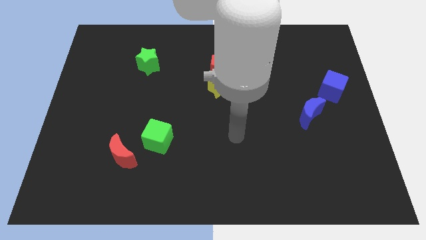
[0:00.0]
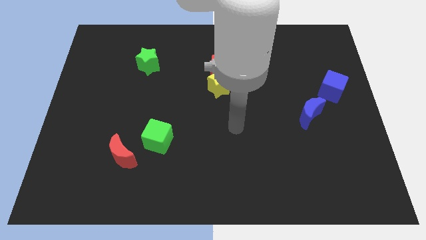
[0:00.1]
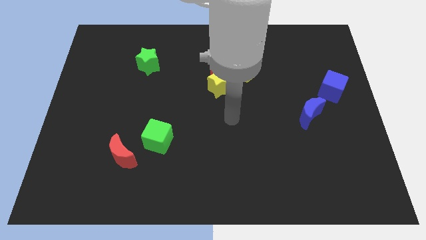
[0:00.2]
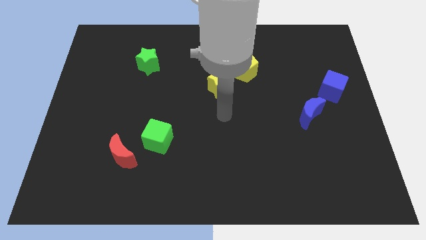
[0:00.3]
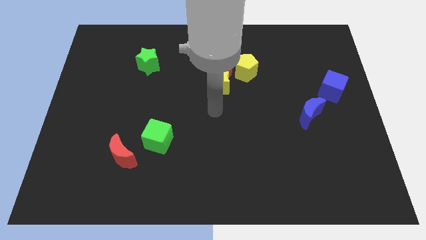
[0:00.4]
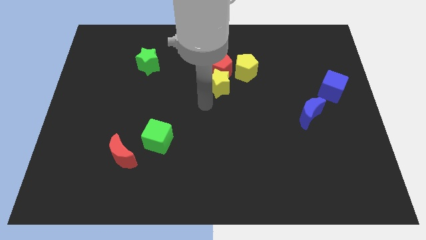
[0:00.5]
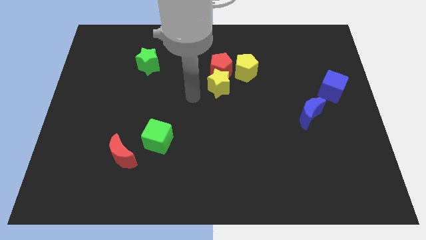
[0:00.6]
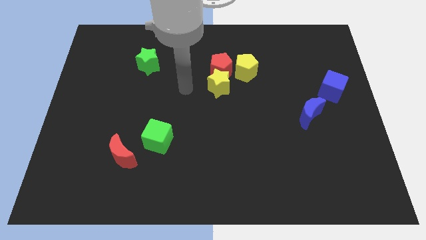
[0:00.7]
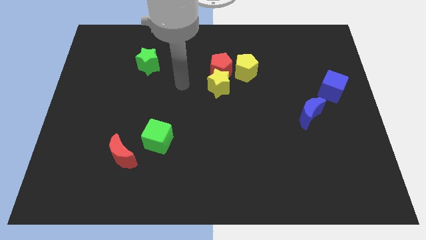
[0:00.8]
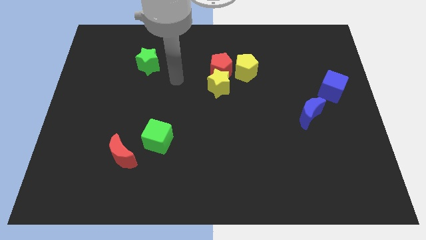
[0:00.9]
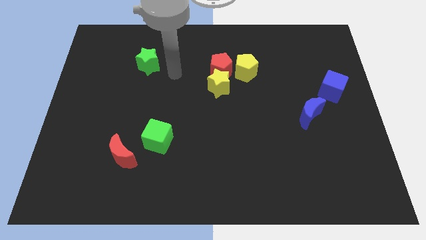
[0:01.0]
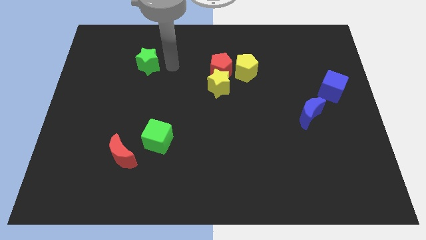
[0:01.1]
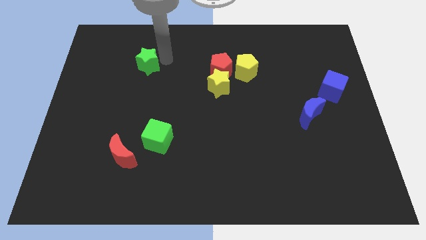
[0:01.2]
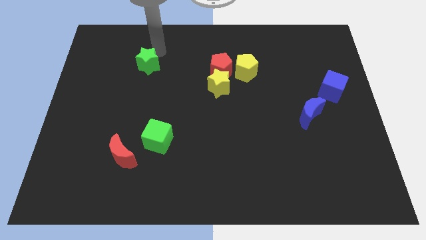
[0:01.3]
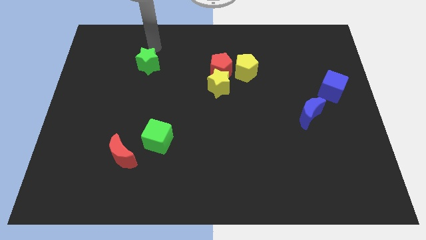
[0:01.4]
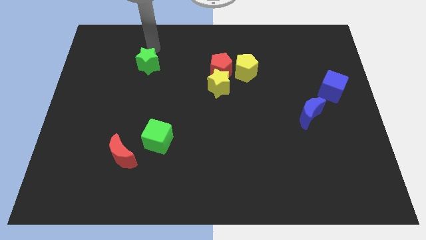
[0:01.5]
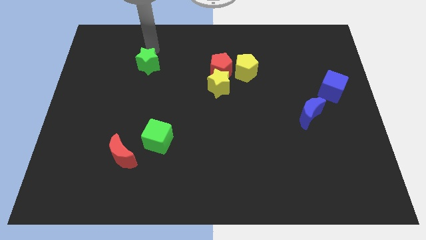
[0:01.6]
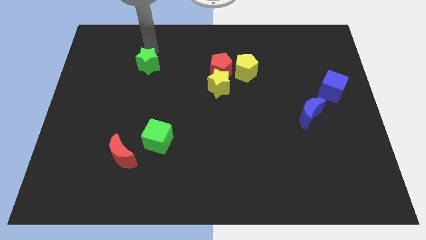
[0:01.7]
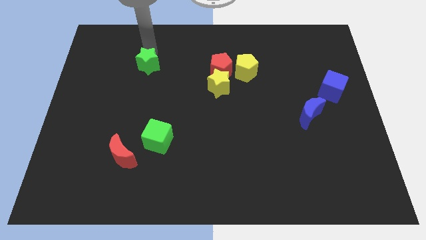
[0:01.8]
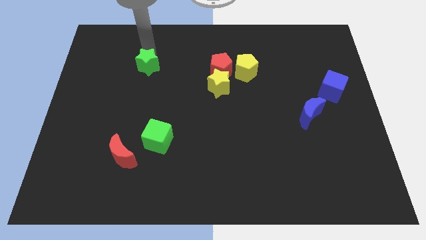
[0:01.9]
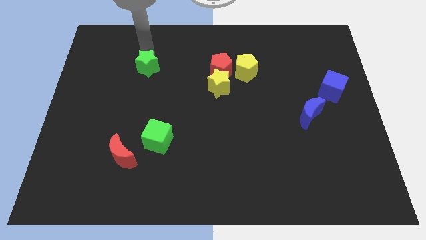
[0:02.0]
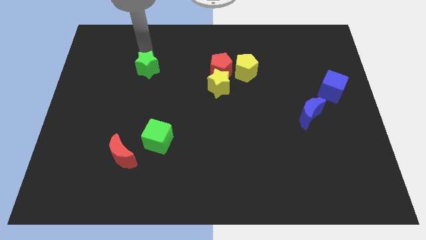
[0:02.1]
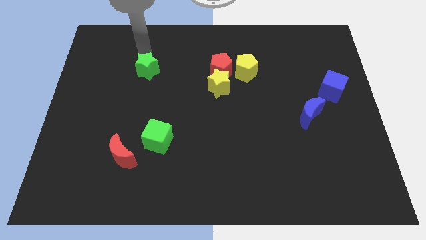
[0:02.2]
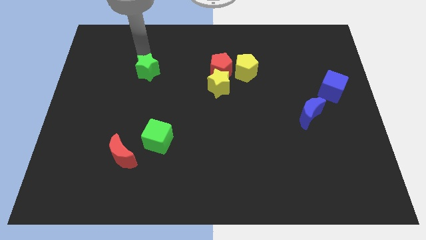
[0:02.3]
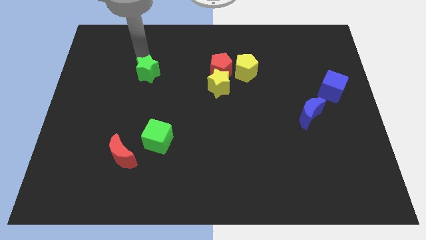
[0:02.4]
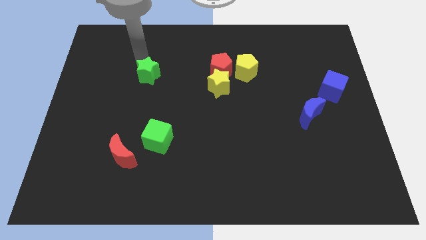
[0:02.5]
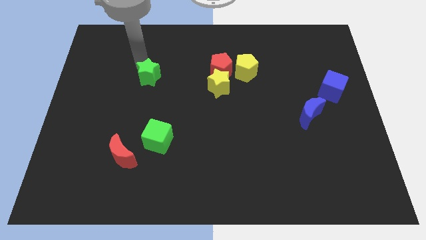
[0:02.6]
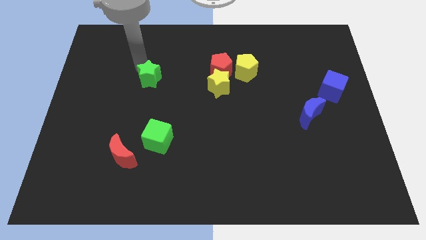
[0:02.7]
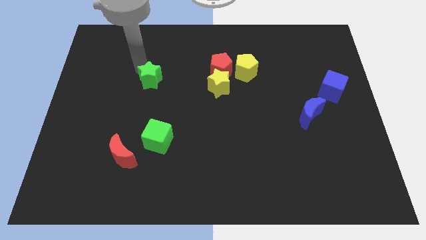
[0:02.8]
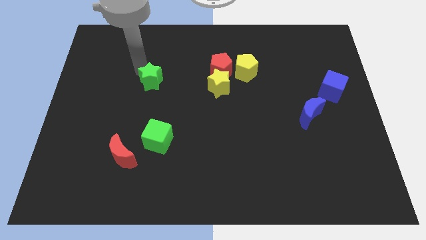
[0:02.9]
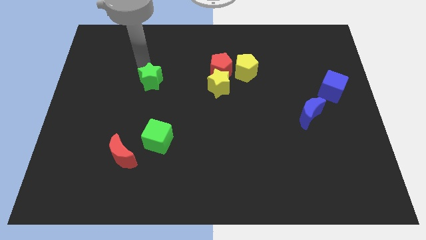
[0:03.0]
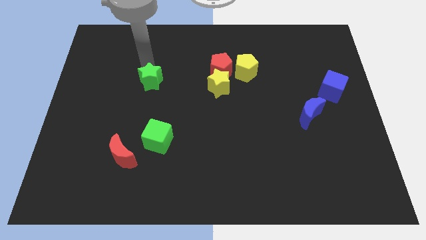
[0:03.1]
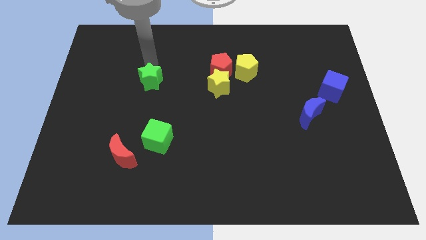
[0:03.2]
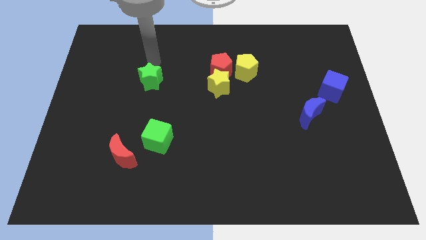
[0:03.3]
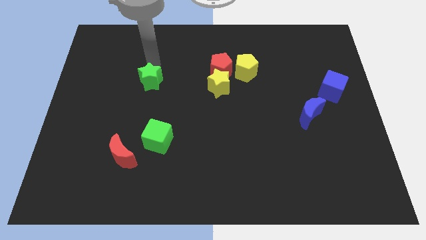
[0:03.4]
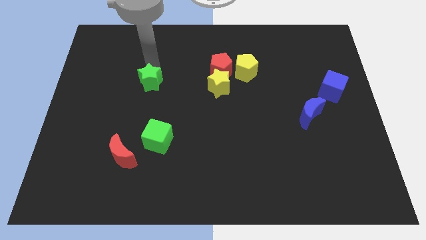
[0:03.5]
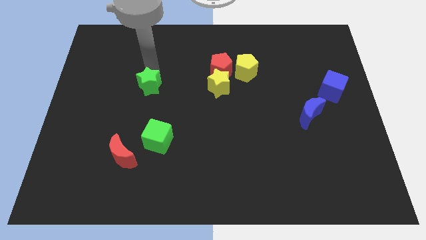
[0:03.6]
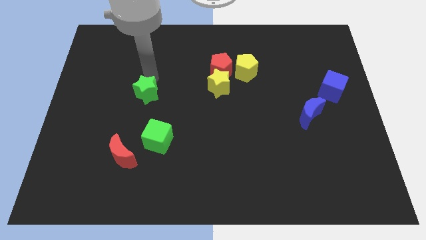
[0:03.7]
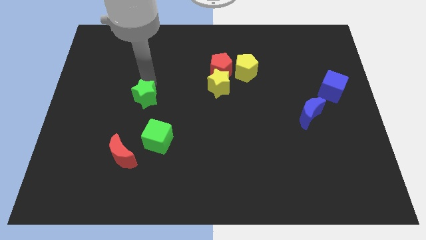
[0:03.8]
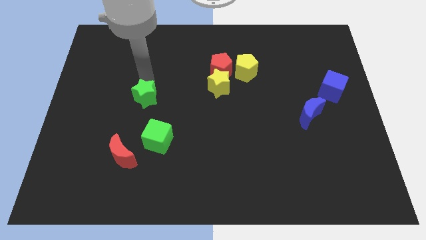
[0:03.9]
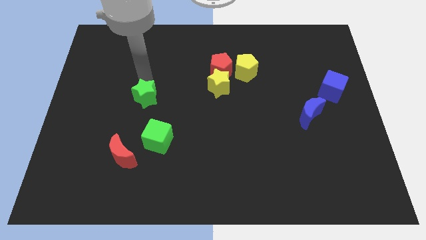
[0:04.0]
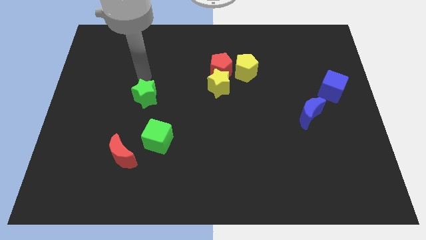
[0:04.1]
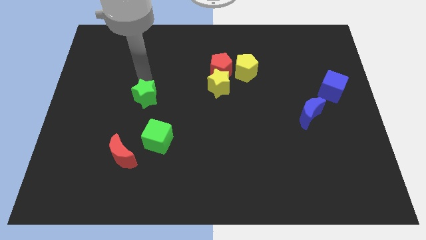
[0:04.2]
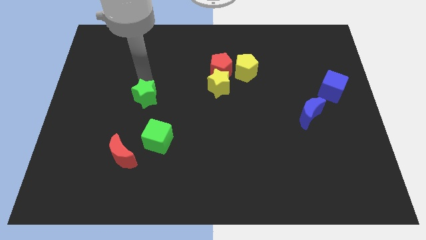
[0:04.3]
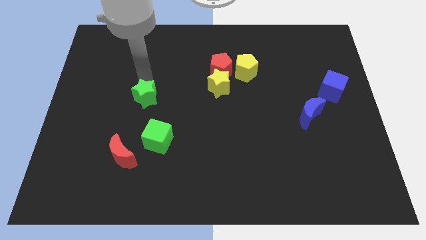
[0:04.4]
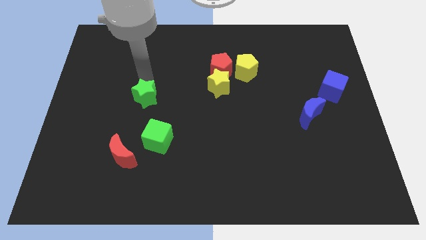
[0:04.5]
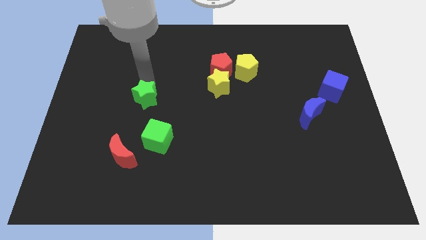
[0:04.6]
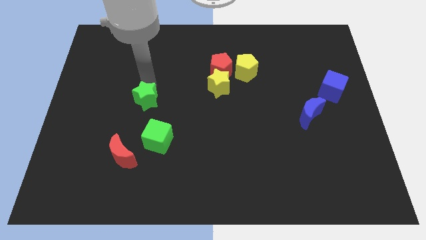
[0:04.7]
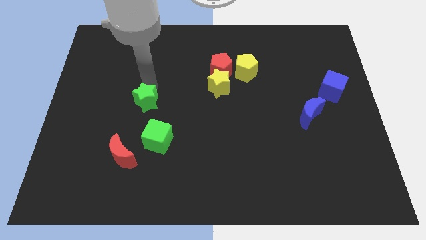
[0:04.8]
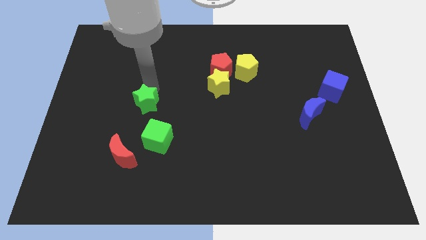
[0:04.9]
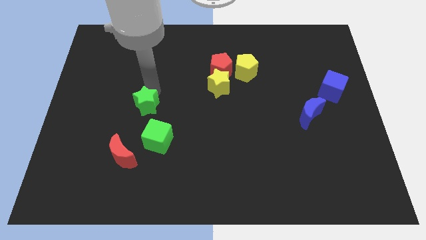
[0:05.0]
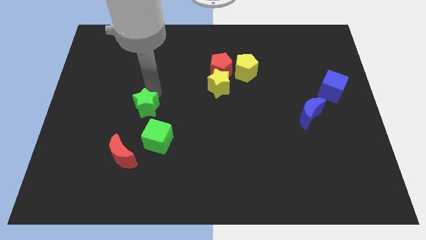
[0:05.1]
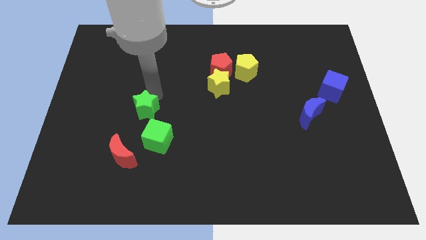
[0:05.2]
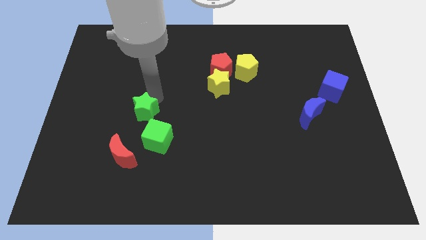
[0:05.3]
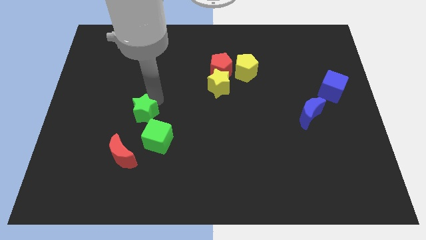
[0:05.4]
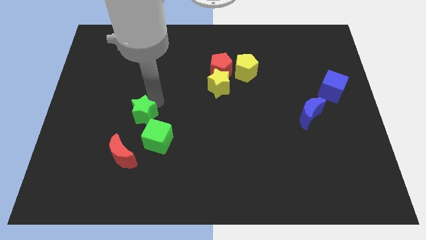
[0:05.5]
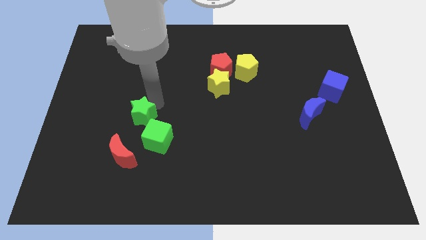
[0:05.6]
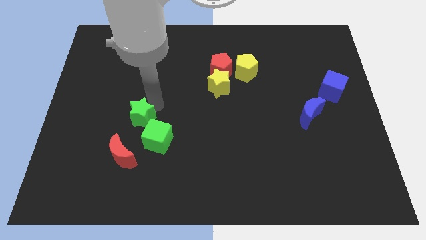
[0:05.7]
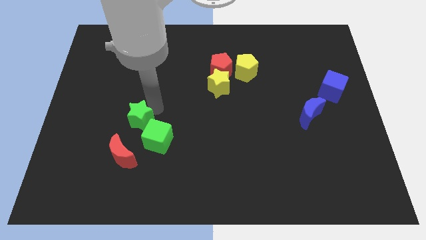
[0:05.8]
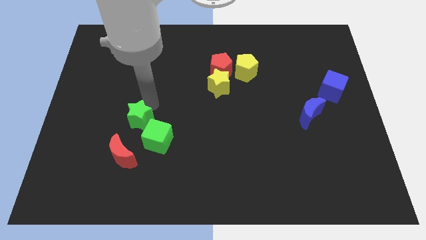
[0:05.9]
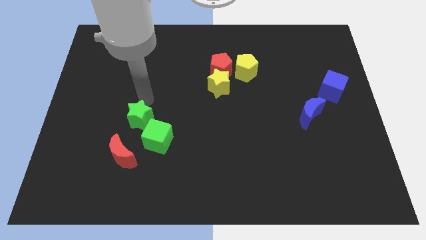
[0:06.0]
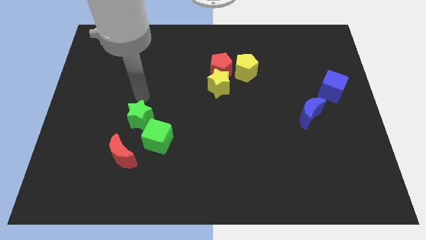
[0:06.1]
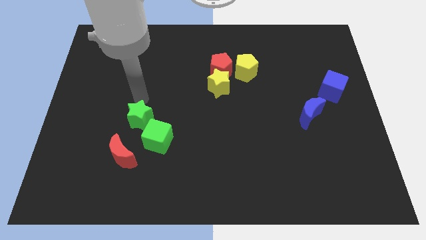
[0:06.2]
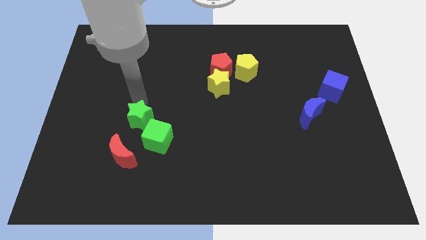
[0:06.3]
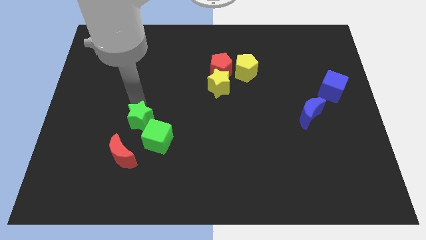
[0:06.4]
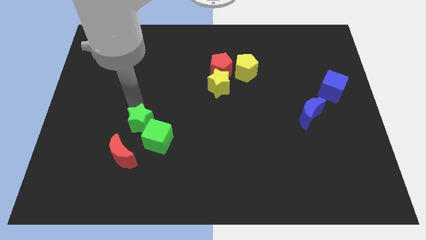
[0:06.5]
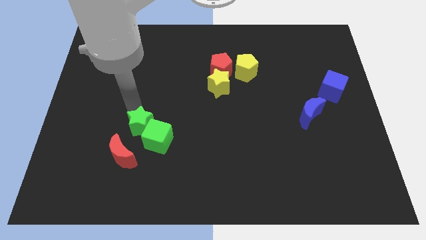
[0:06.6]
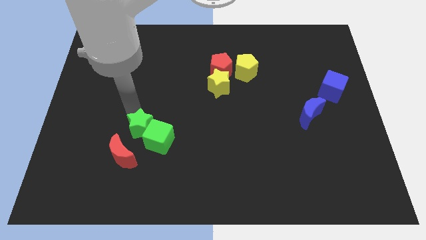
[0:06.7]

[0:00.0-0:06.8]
push the green star down

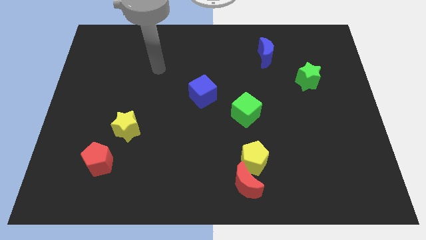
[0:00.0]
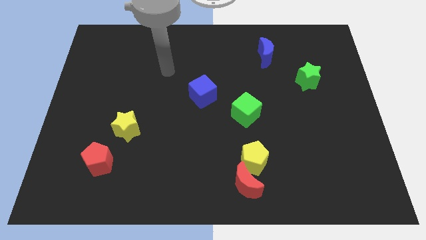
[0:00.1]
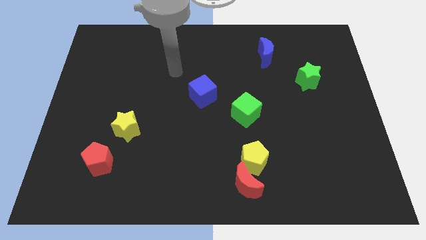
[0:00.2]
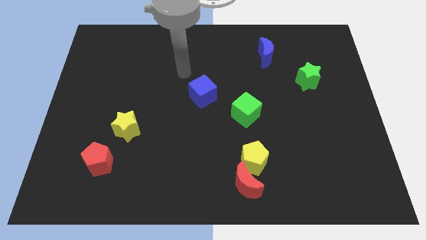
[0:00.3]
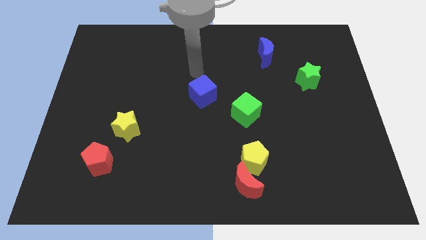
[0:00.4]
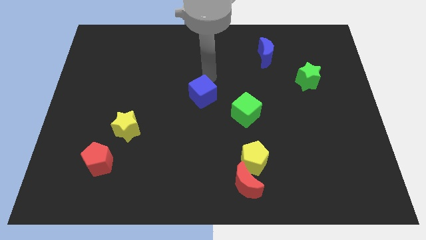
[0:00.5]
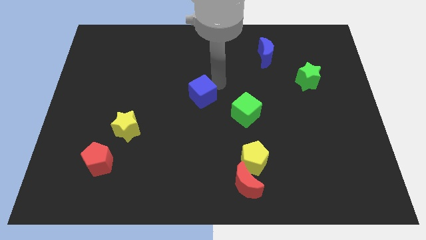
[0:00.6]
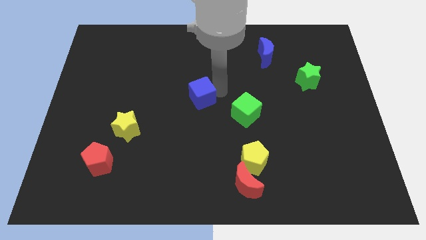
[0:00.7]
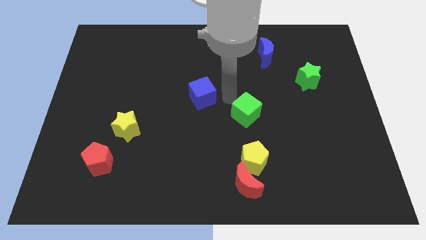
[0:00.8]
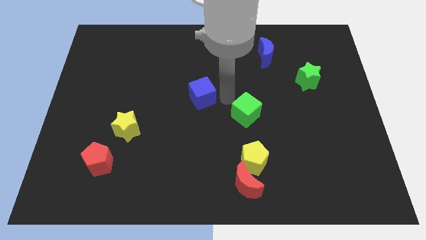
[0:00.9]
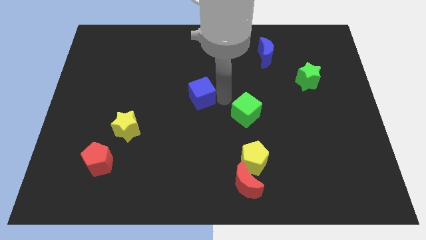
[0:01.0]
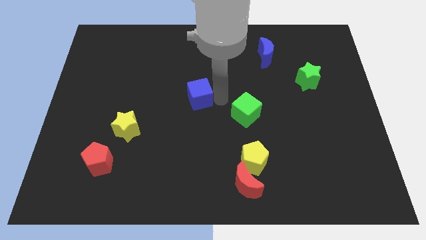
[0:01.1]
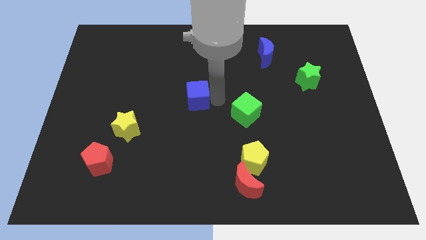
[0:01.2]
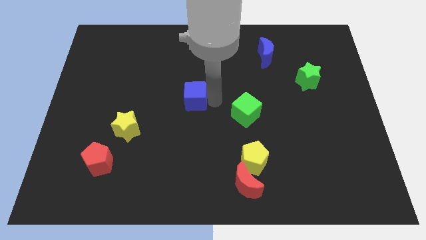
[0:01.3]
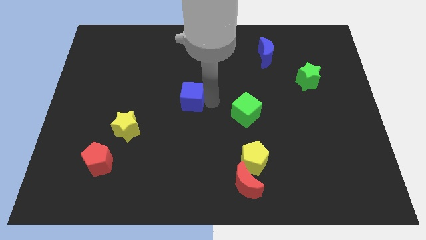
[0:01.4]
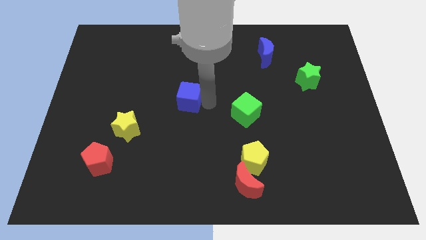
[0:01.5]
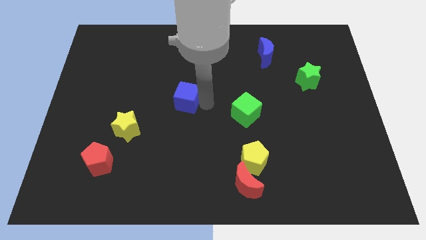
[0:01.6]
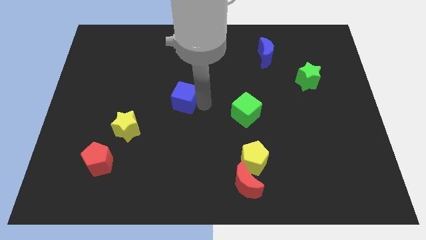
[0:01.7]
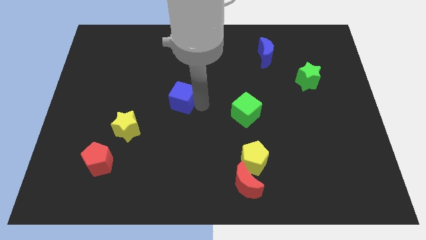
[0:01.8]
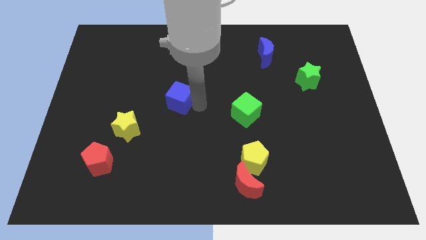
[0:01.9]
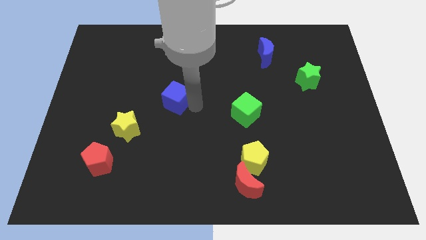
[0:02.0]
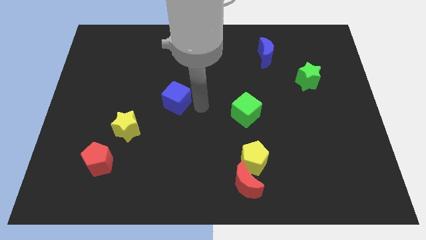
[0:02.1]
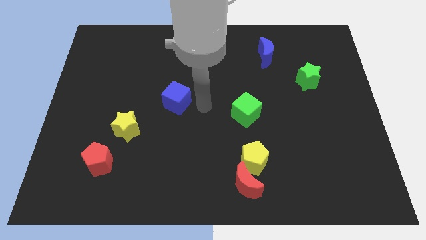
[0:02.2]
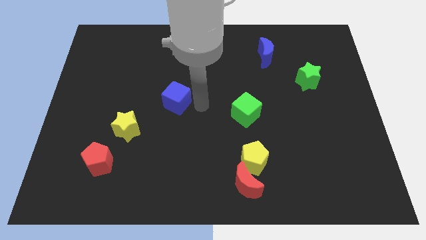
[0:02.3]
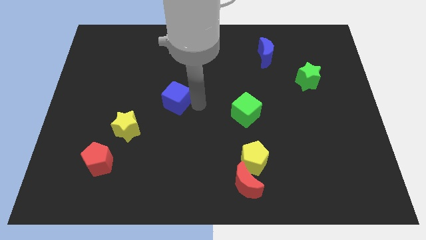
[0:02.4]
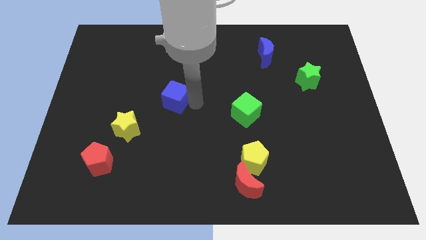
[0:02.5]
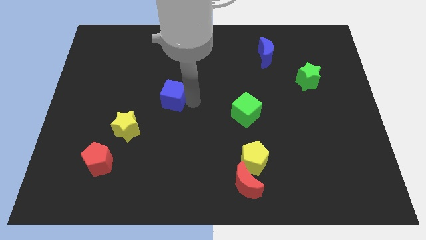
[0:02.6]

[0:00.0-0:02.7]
move the blue cube somewhat left
